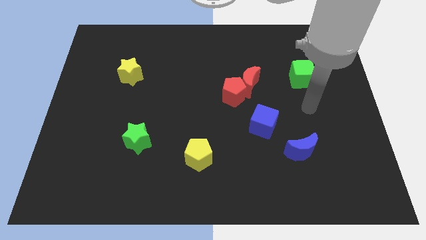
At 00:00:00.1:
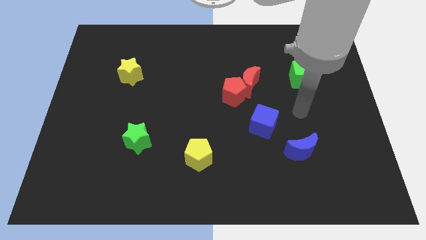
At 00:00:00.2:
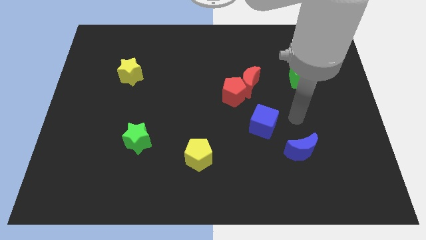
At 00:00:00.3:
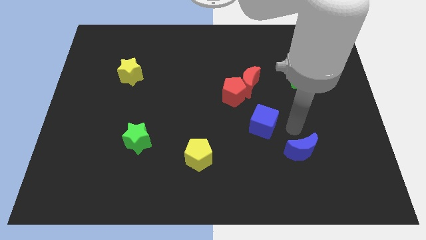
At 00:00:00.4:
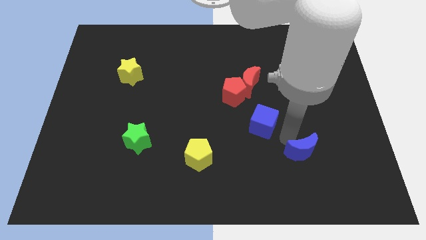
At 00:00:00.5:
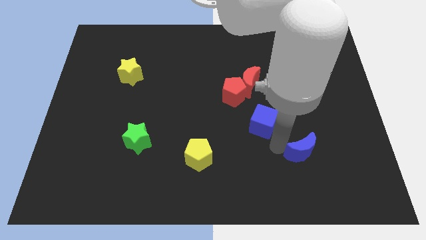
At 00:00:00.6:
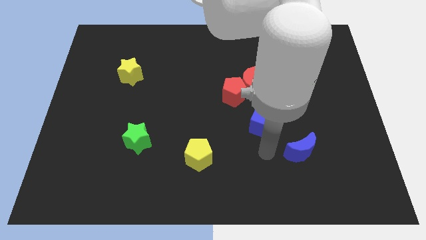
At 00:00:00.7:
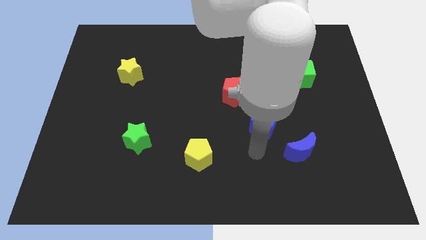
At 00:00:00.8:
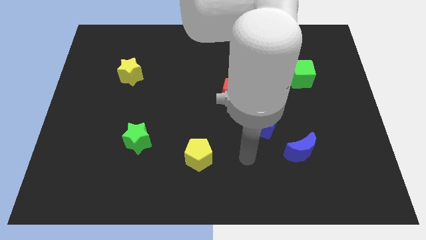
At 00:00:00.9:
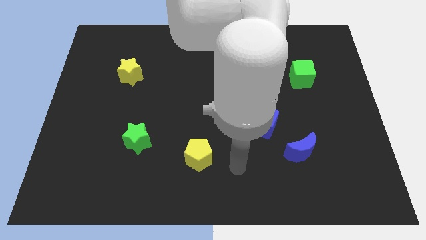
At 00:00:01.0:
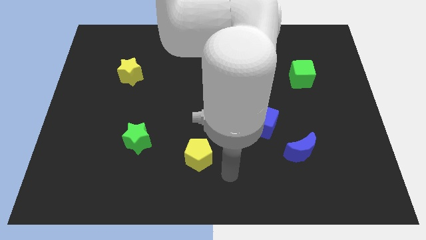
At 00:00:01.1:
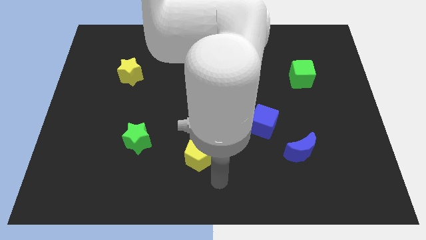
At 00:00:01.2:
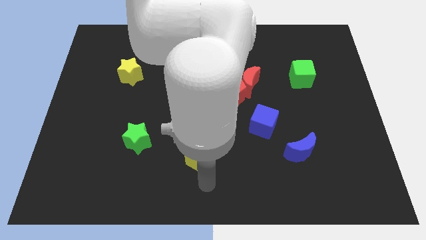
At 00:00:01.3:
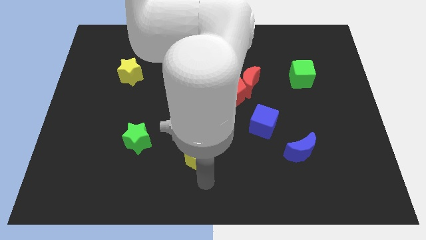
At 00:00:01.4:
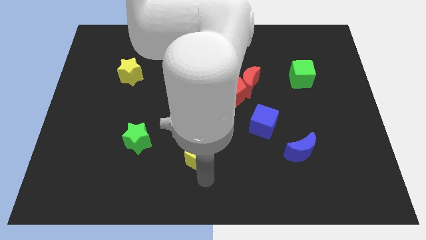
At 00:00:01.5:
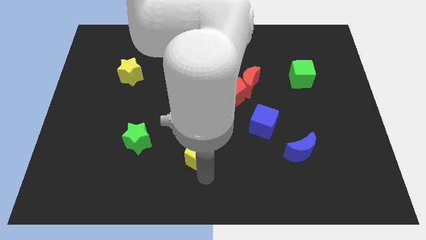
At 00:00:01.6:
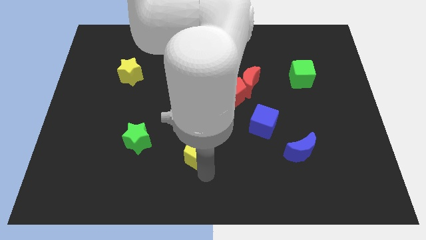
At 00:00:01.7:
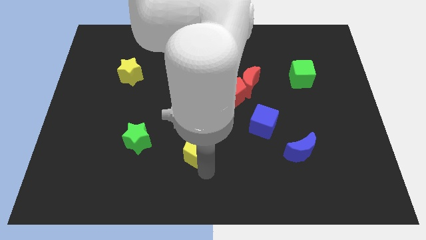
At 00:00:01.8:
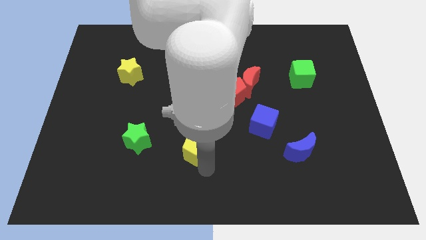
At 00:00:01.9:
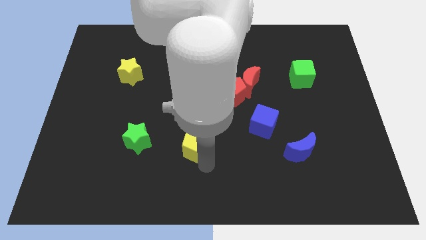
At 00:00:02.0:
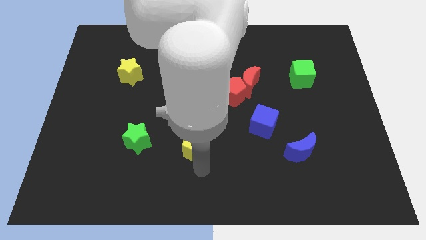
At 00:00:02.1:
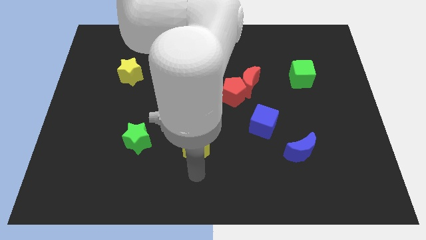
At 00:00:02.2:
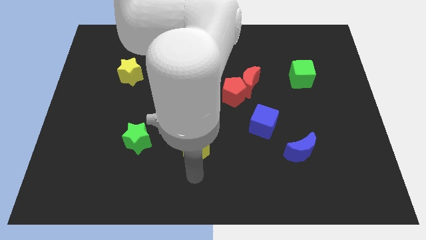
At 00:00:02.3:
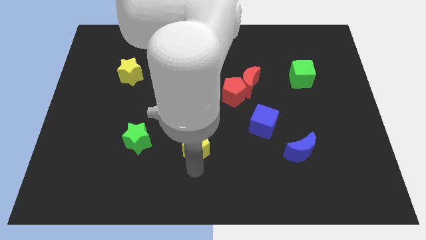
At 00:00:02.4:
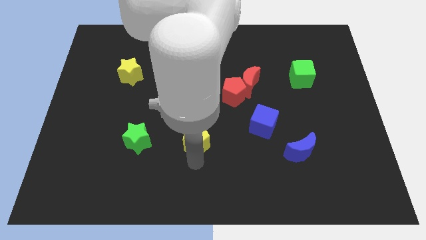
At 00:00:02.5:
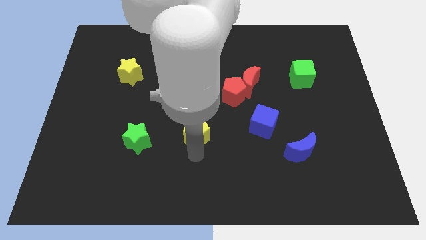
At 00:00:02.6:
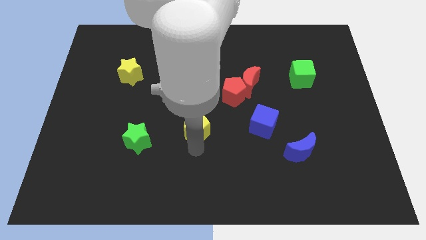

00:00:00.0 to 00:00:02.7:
slightly slide the yellow pentagon upwards

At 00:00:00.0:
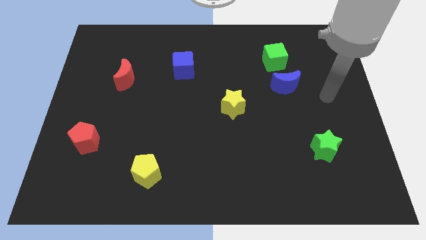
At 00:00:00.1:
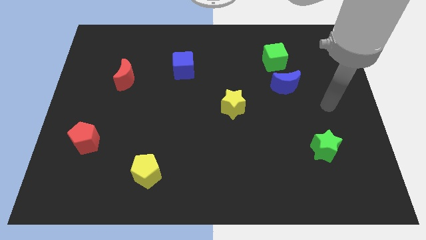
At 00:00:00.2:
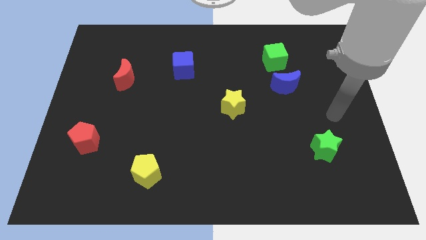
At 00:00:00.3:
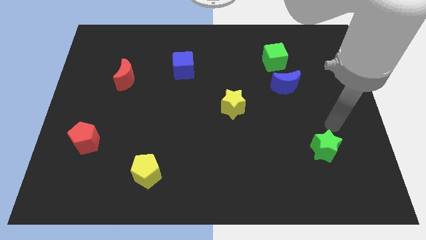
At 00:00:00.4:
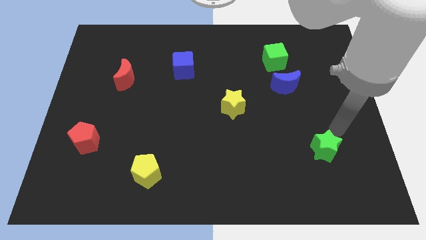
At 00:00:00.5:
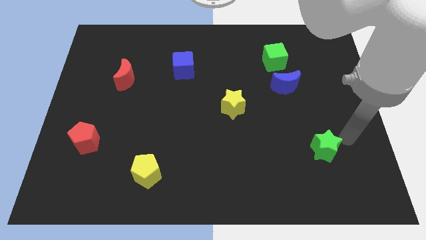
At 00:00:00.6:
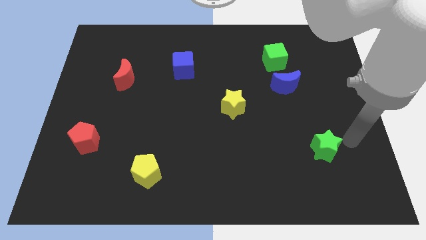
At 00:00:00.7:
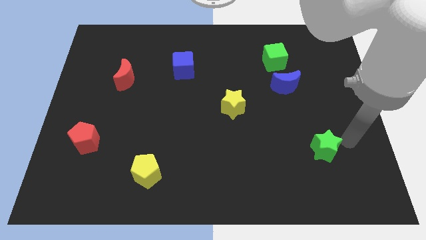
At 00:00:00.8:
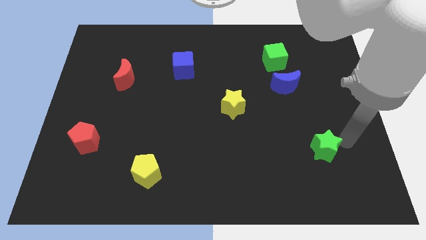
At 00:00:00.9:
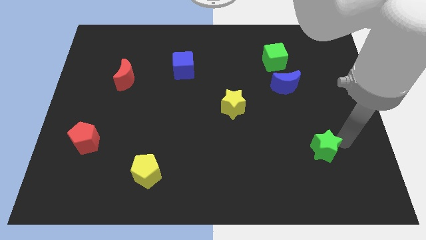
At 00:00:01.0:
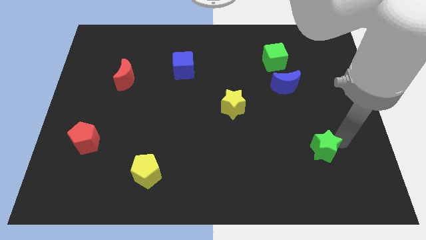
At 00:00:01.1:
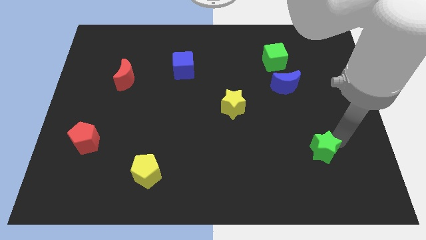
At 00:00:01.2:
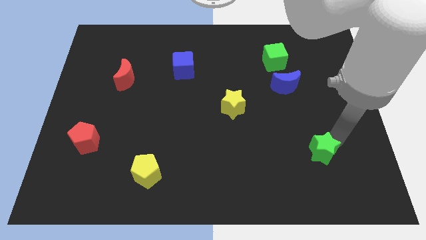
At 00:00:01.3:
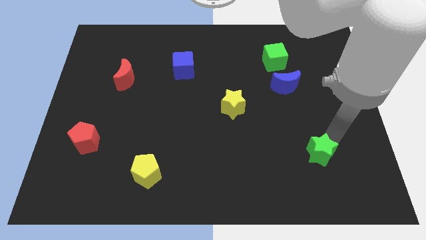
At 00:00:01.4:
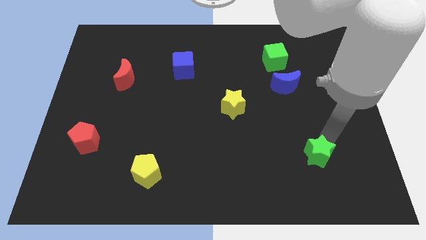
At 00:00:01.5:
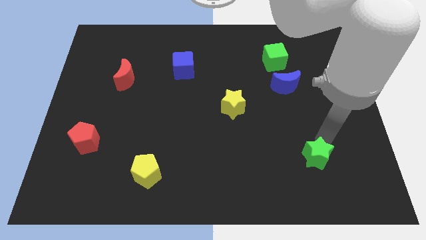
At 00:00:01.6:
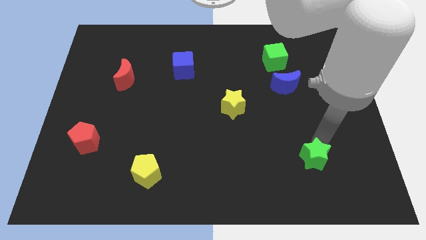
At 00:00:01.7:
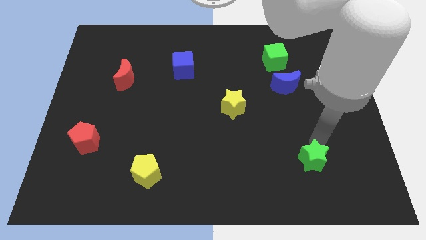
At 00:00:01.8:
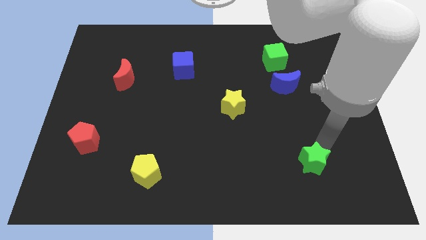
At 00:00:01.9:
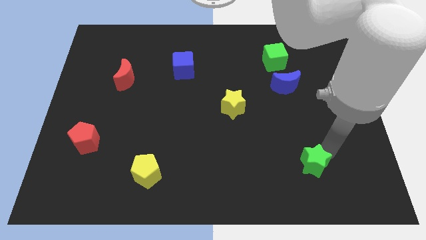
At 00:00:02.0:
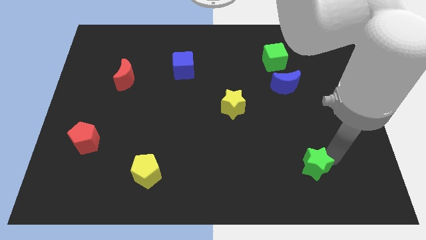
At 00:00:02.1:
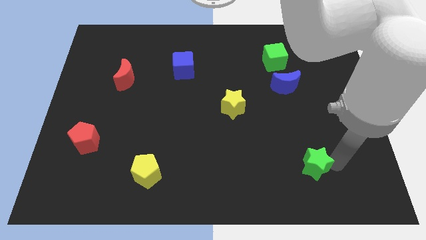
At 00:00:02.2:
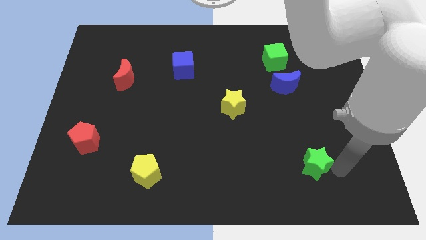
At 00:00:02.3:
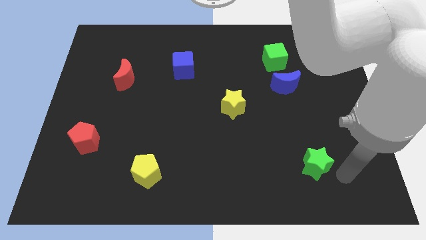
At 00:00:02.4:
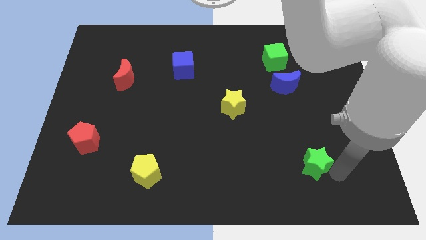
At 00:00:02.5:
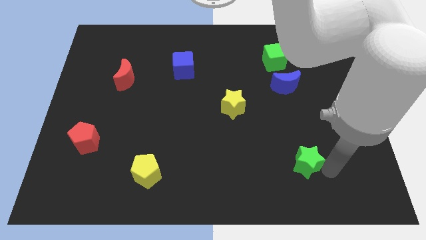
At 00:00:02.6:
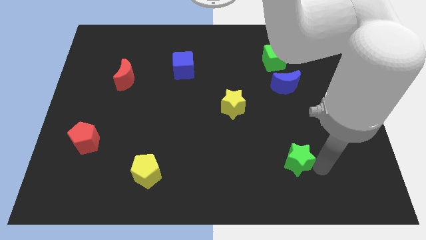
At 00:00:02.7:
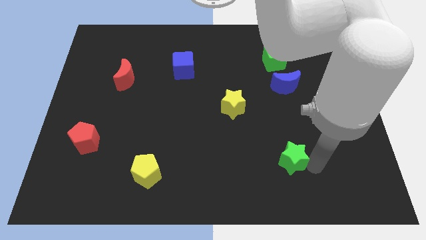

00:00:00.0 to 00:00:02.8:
move the green star somewhat left

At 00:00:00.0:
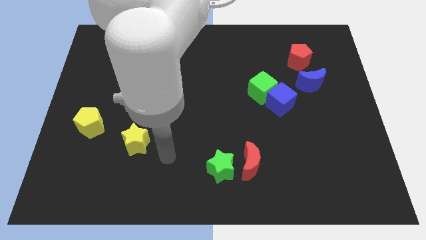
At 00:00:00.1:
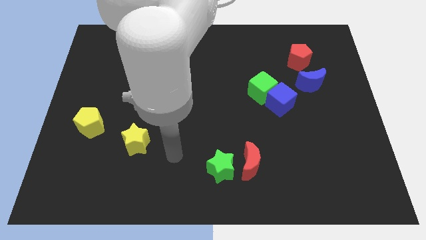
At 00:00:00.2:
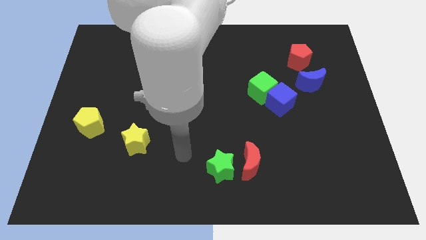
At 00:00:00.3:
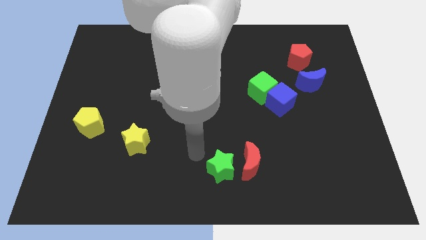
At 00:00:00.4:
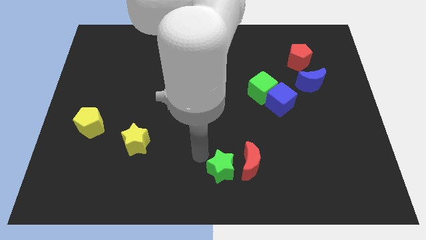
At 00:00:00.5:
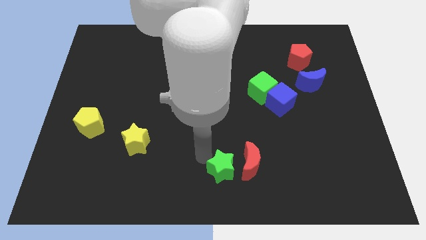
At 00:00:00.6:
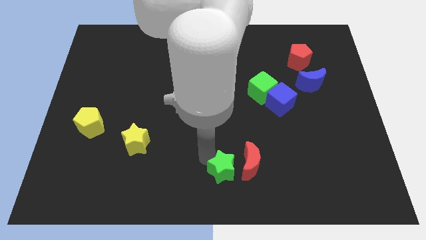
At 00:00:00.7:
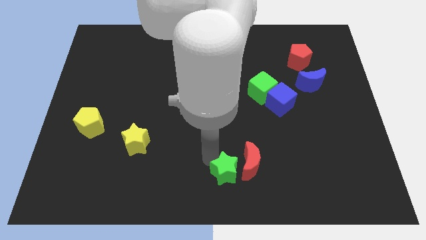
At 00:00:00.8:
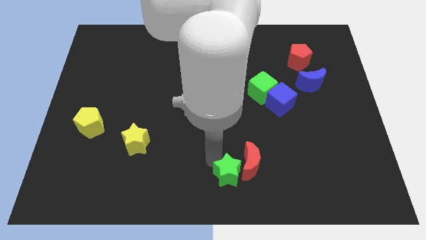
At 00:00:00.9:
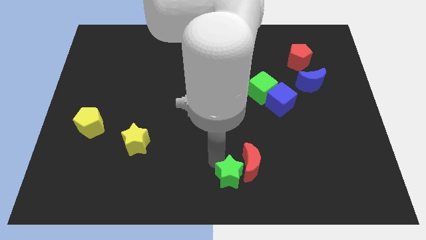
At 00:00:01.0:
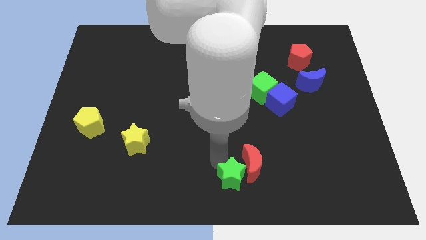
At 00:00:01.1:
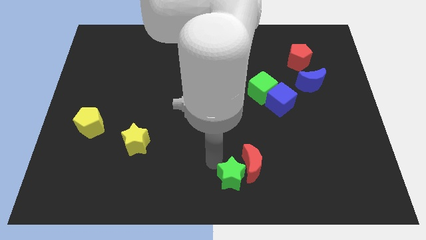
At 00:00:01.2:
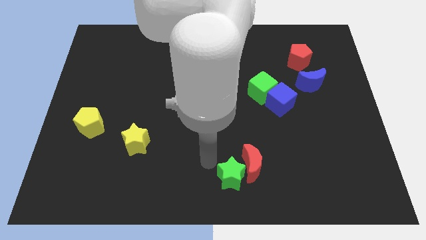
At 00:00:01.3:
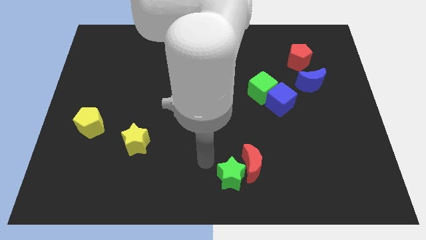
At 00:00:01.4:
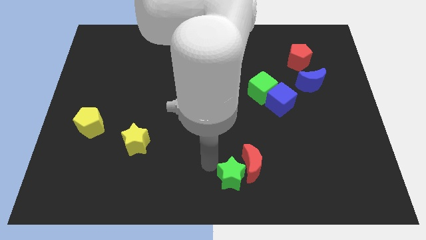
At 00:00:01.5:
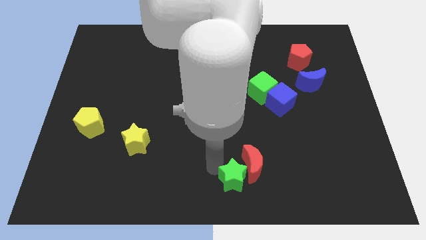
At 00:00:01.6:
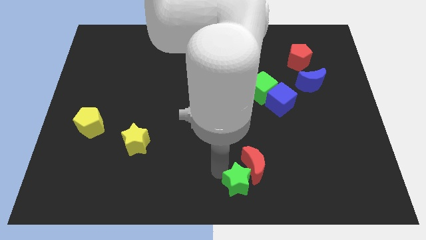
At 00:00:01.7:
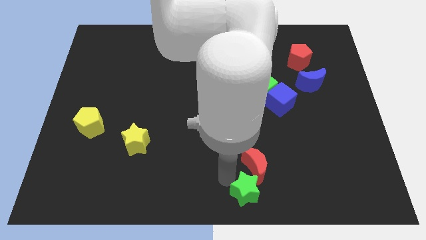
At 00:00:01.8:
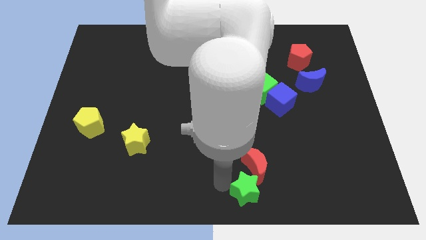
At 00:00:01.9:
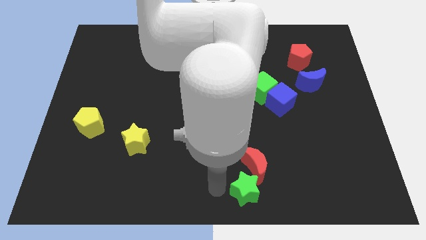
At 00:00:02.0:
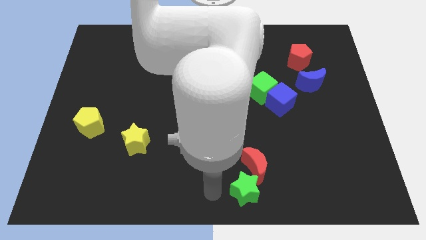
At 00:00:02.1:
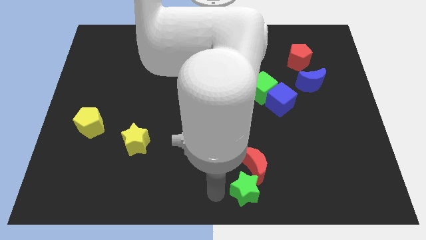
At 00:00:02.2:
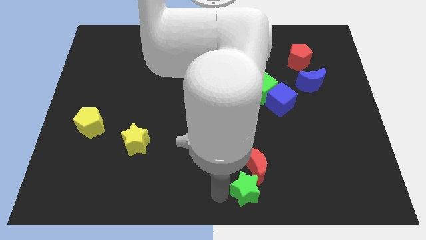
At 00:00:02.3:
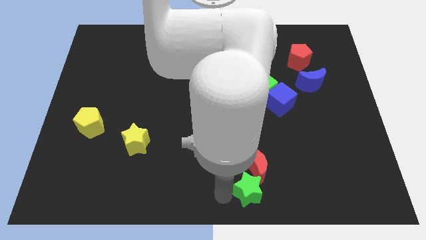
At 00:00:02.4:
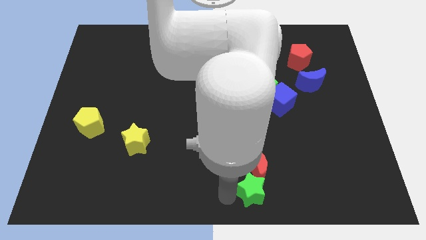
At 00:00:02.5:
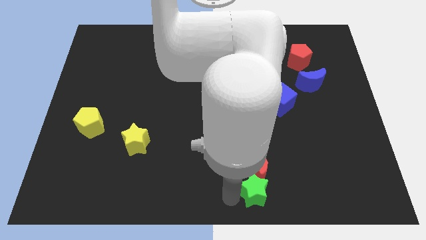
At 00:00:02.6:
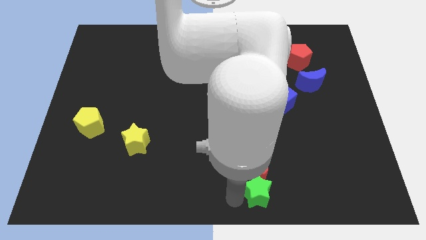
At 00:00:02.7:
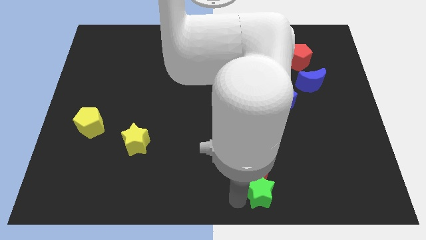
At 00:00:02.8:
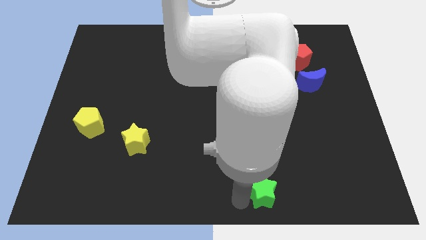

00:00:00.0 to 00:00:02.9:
slightly slide the green star to the right
